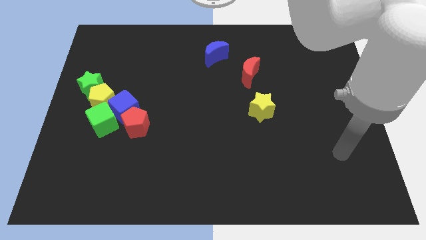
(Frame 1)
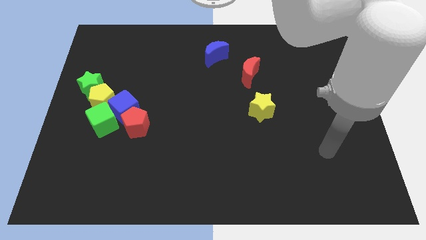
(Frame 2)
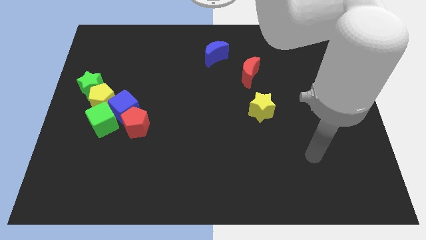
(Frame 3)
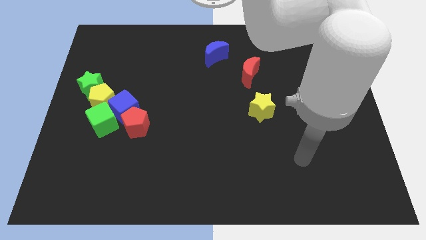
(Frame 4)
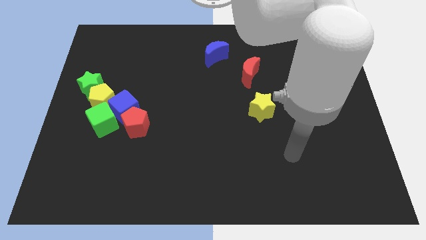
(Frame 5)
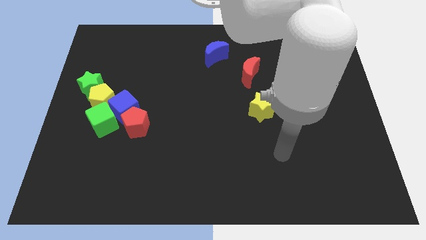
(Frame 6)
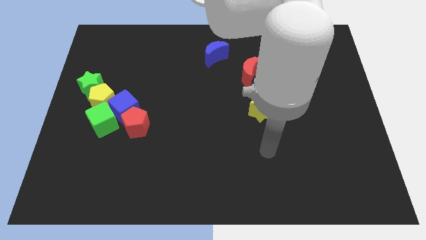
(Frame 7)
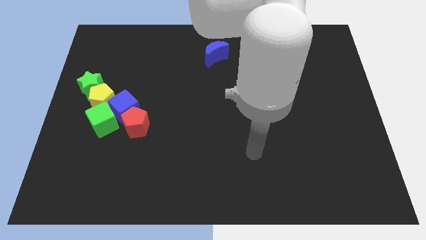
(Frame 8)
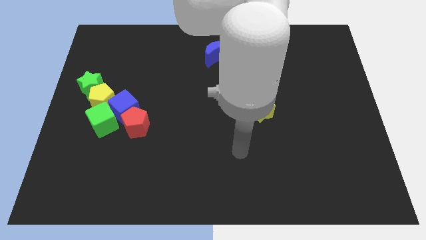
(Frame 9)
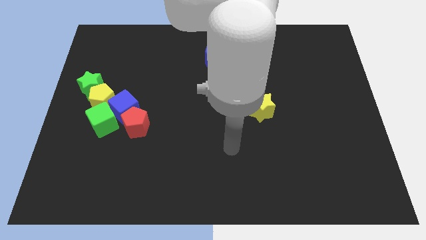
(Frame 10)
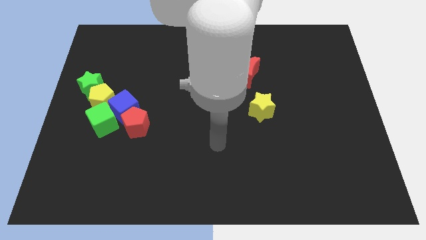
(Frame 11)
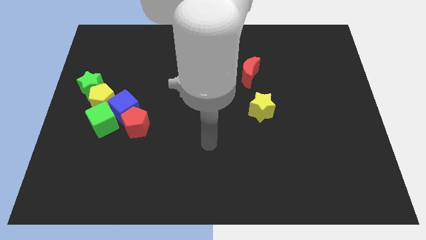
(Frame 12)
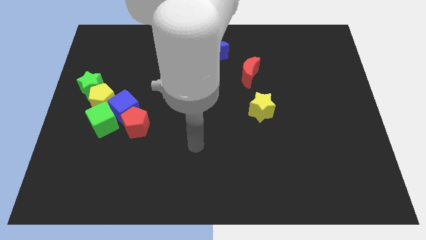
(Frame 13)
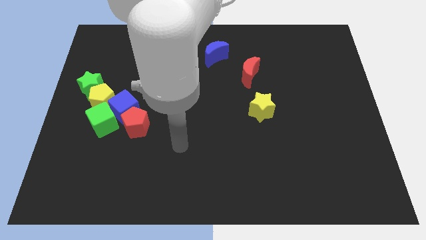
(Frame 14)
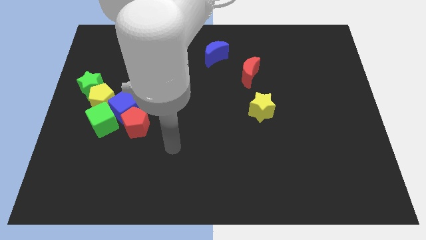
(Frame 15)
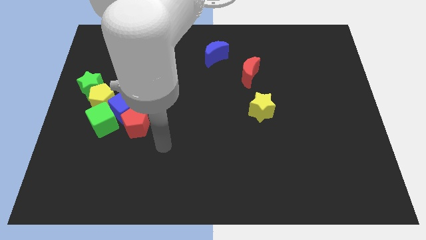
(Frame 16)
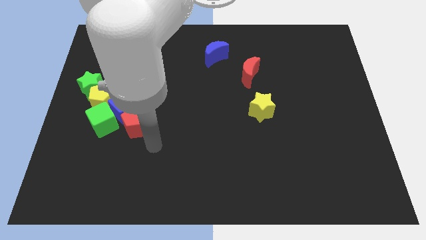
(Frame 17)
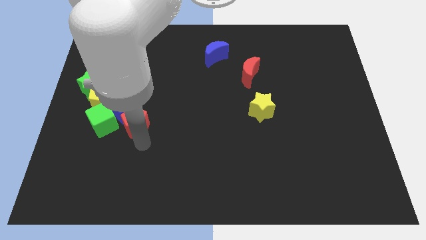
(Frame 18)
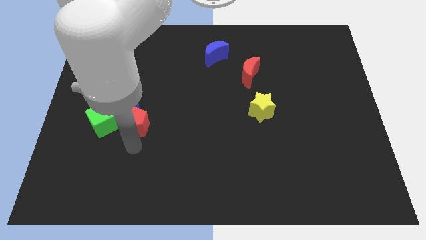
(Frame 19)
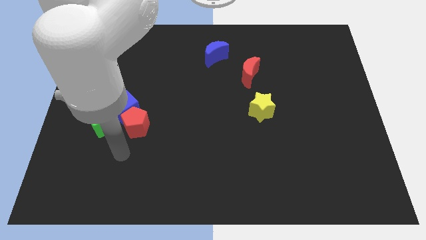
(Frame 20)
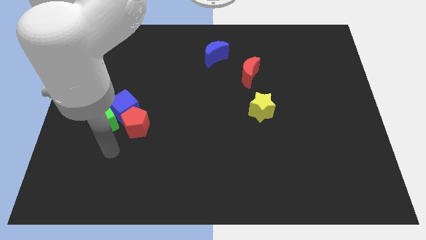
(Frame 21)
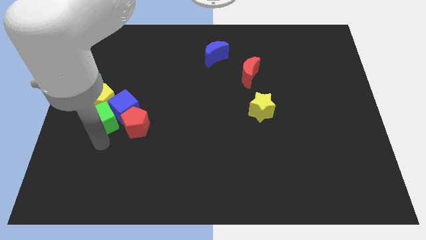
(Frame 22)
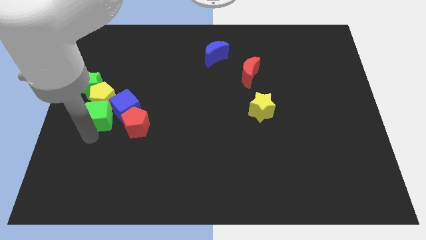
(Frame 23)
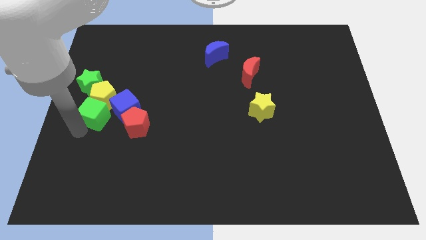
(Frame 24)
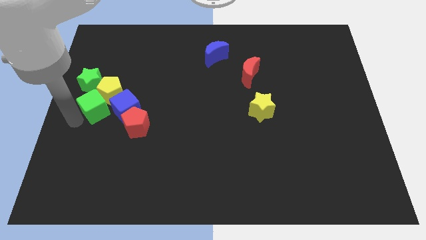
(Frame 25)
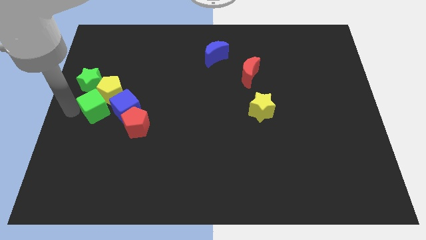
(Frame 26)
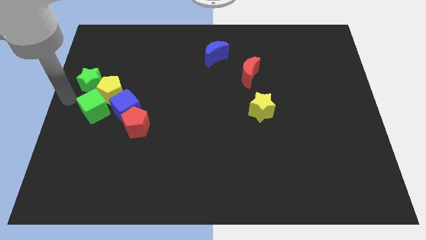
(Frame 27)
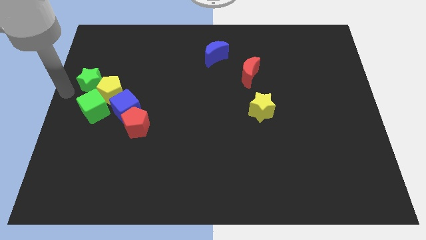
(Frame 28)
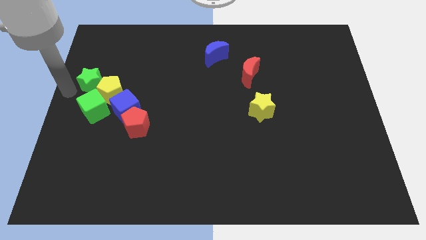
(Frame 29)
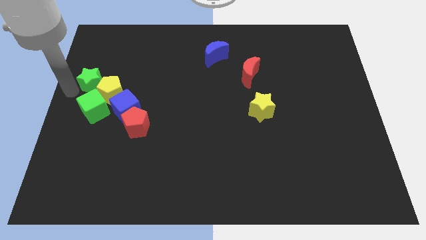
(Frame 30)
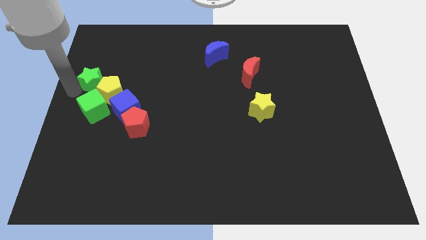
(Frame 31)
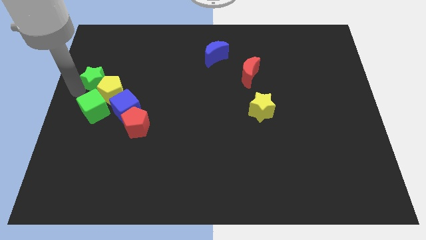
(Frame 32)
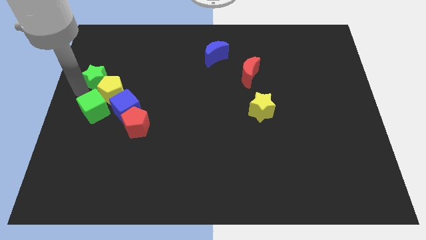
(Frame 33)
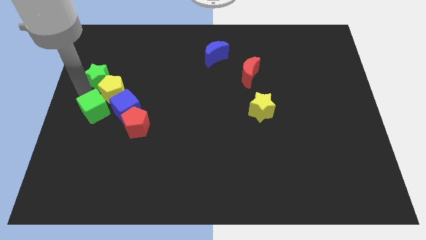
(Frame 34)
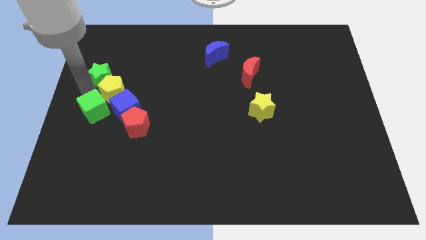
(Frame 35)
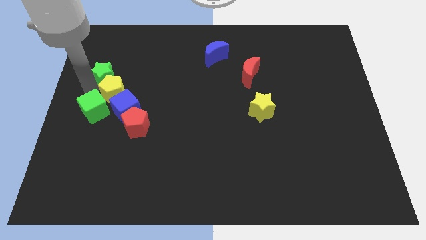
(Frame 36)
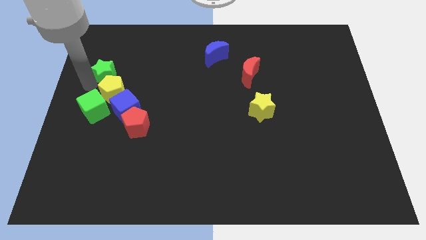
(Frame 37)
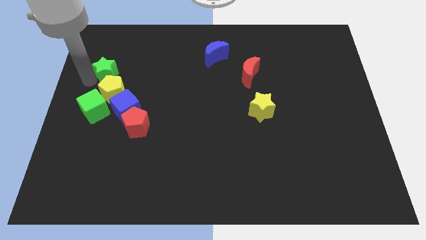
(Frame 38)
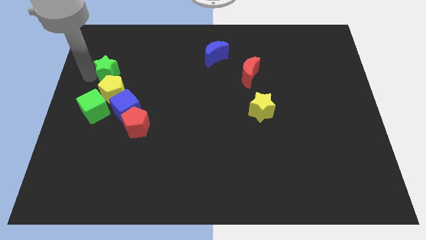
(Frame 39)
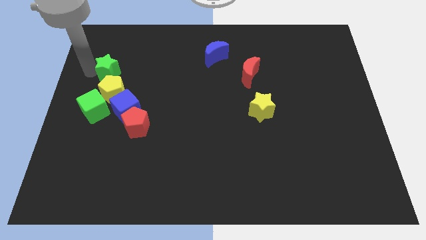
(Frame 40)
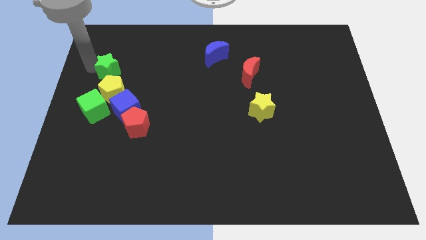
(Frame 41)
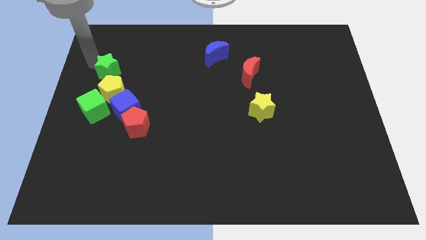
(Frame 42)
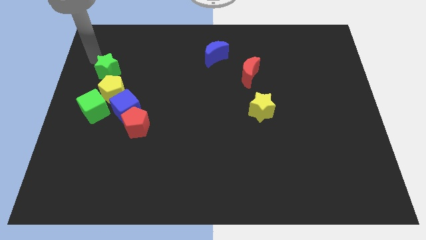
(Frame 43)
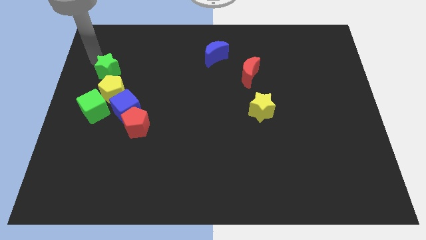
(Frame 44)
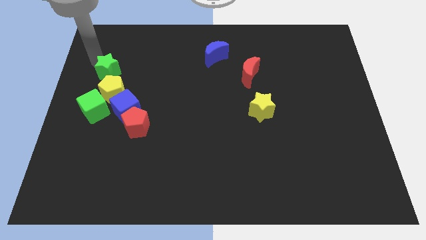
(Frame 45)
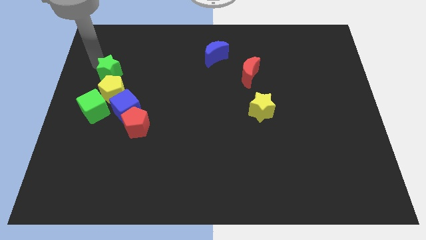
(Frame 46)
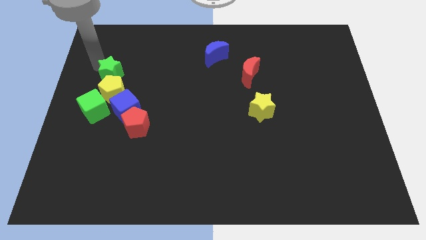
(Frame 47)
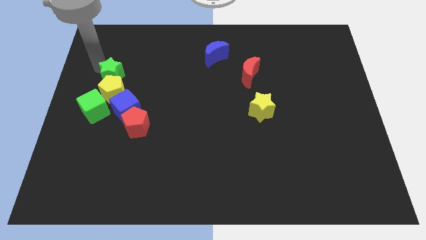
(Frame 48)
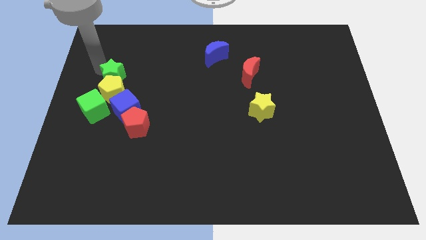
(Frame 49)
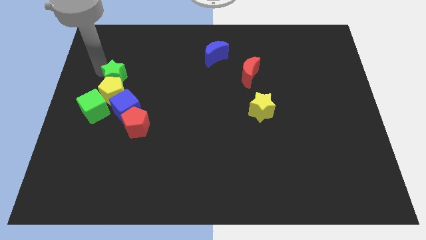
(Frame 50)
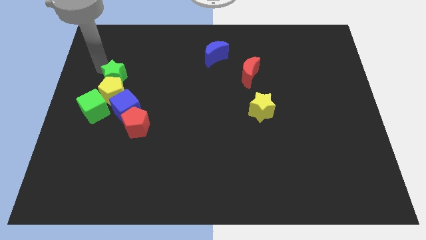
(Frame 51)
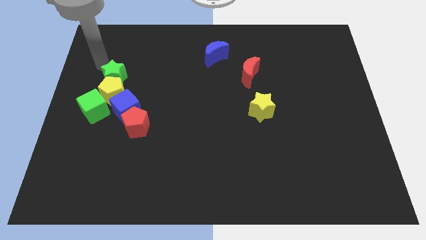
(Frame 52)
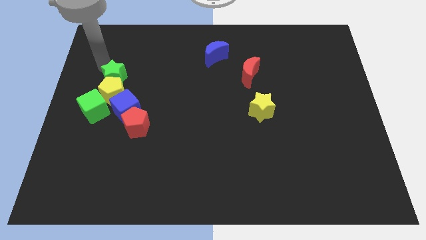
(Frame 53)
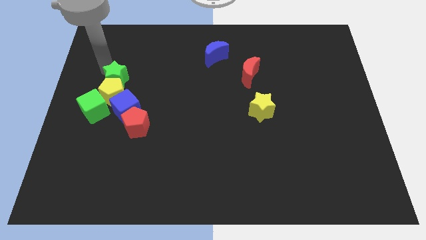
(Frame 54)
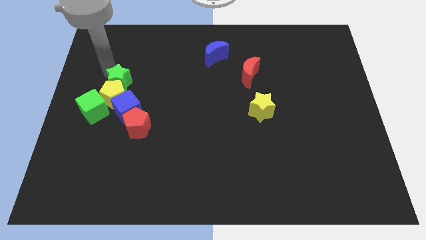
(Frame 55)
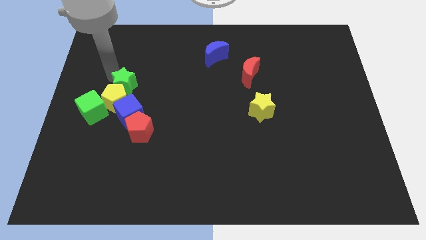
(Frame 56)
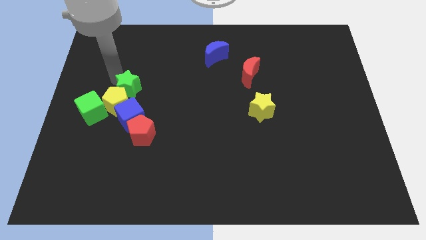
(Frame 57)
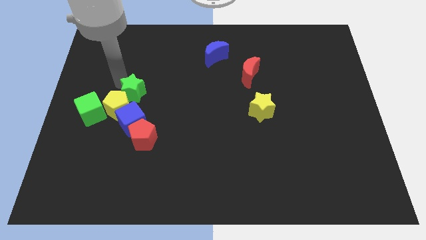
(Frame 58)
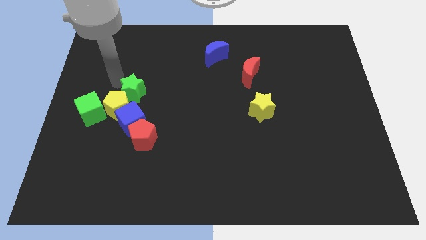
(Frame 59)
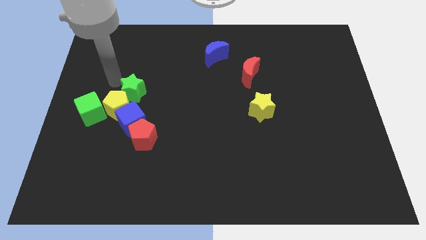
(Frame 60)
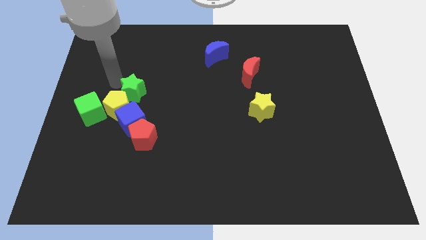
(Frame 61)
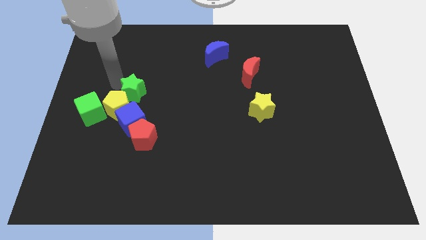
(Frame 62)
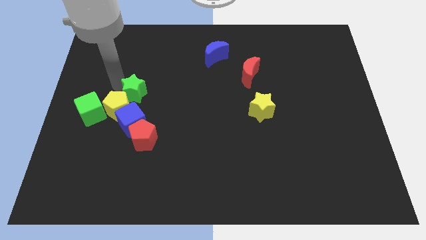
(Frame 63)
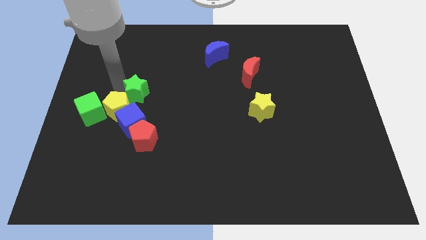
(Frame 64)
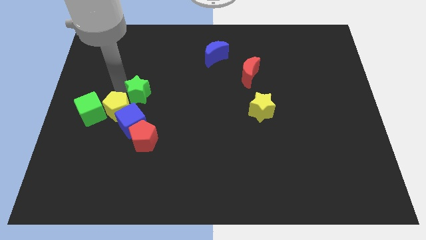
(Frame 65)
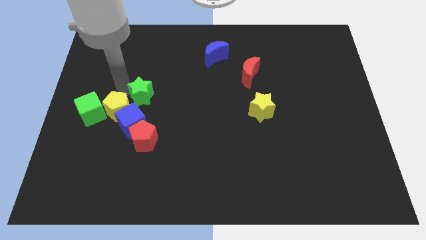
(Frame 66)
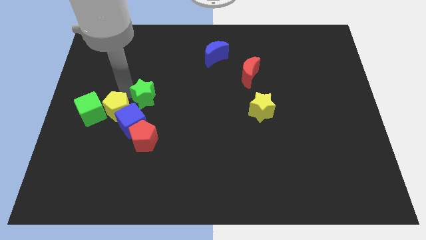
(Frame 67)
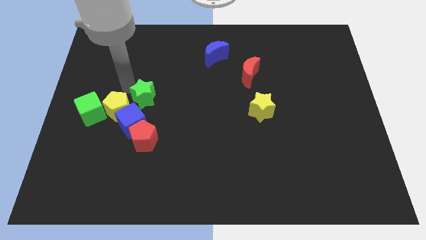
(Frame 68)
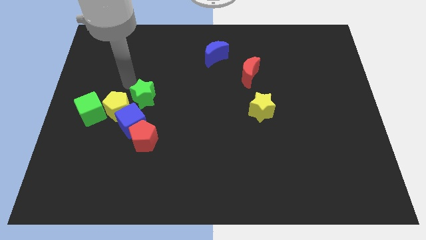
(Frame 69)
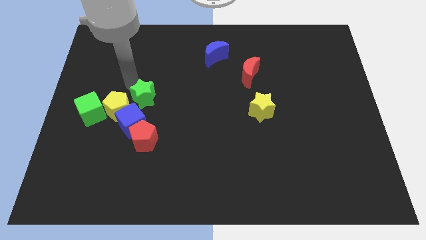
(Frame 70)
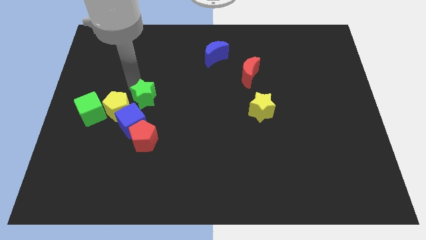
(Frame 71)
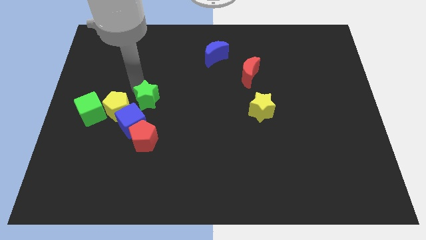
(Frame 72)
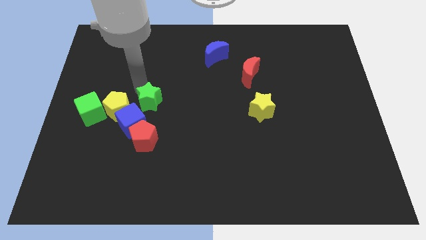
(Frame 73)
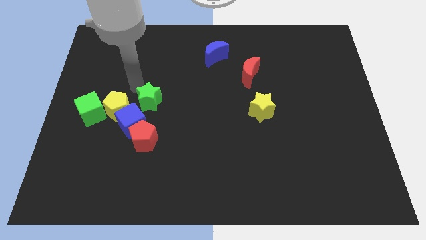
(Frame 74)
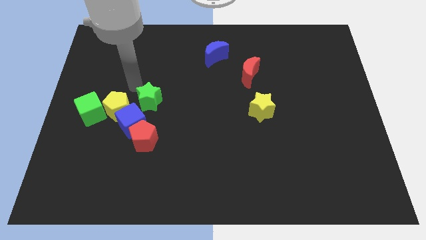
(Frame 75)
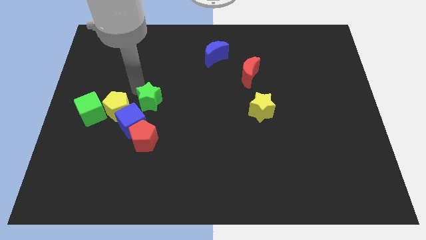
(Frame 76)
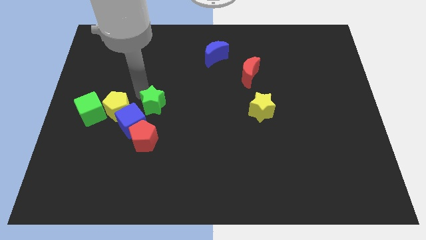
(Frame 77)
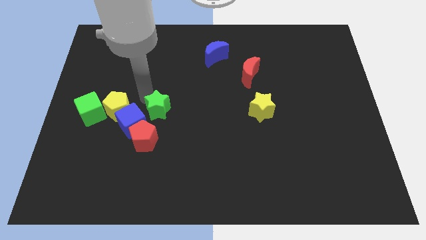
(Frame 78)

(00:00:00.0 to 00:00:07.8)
move the green star diagonally up and to the right of the red pentagon
